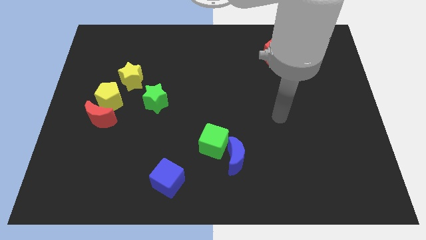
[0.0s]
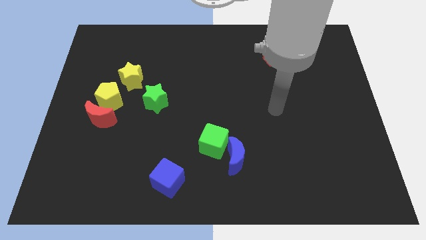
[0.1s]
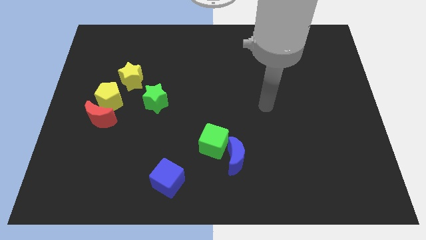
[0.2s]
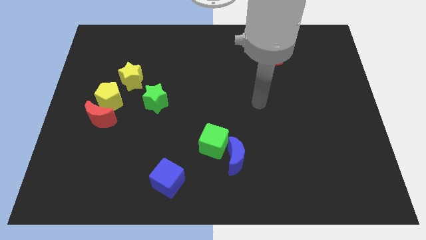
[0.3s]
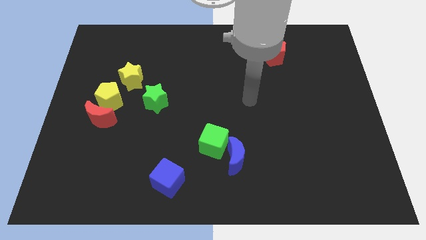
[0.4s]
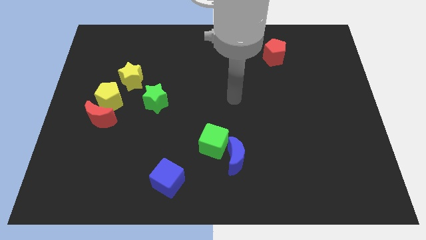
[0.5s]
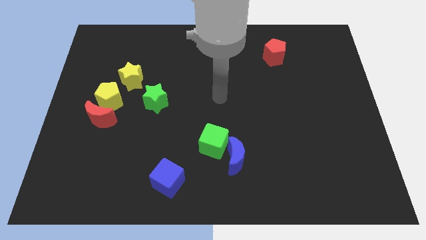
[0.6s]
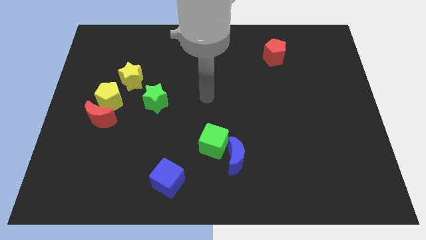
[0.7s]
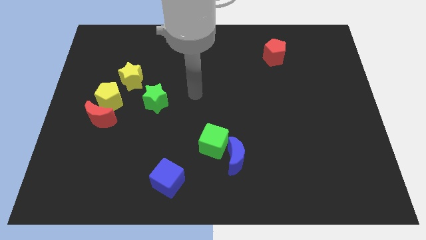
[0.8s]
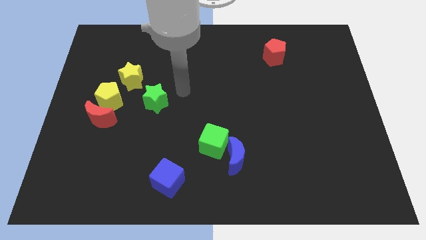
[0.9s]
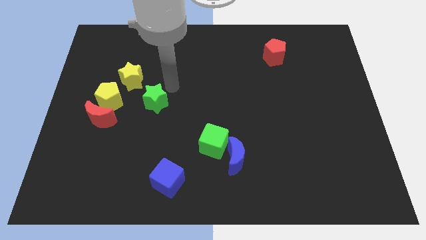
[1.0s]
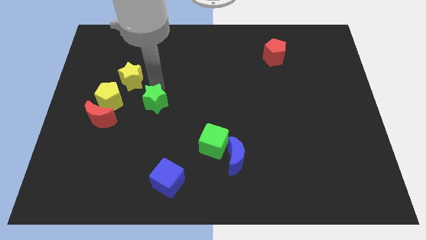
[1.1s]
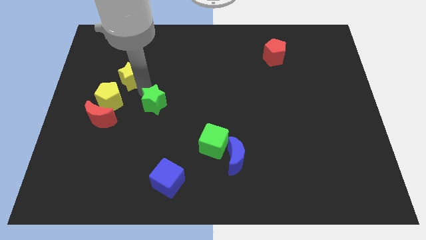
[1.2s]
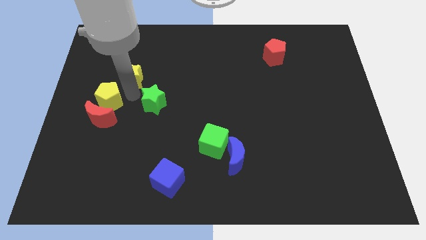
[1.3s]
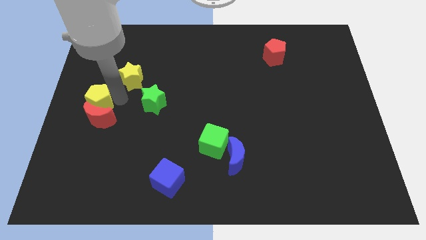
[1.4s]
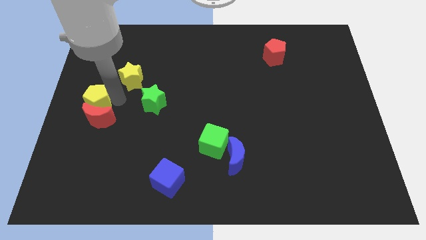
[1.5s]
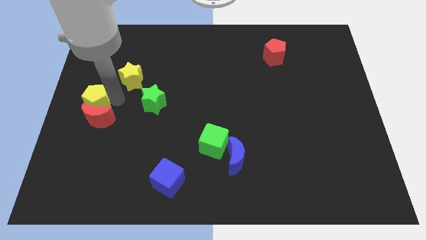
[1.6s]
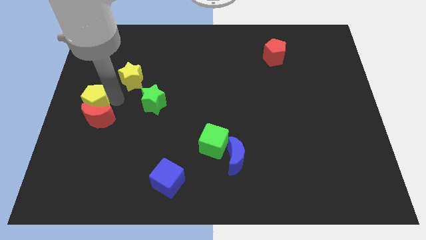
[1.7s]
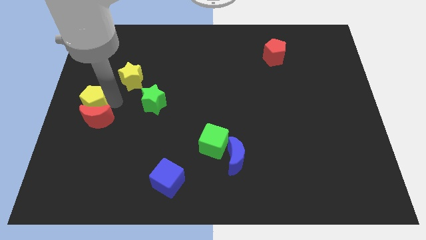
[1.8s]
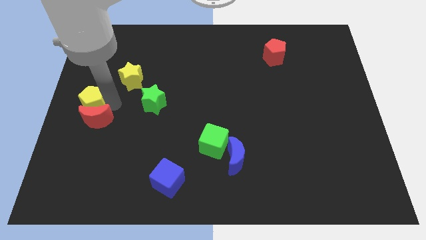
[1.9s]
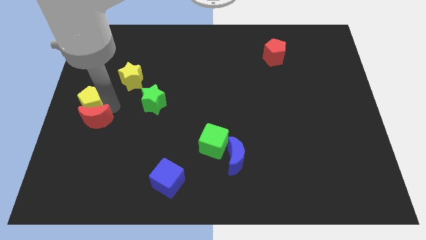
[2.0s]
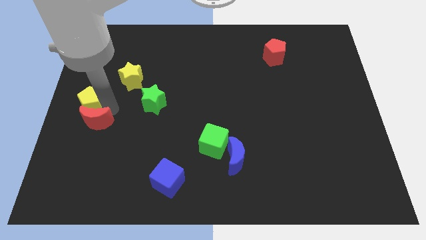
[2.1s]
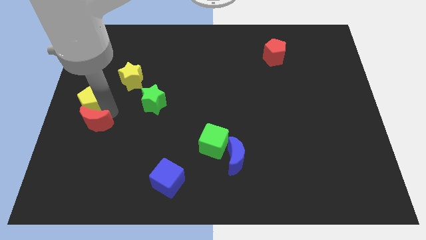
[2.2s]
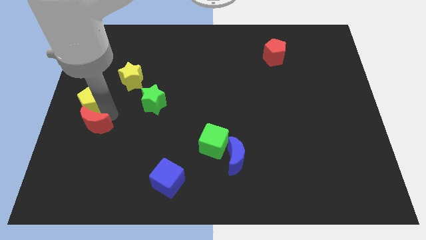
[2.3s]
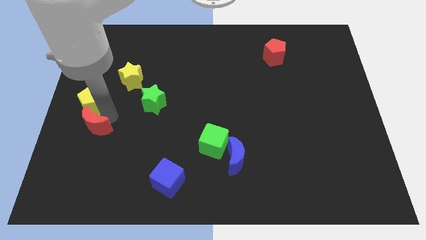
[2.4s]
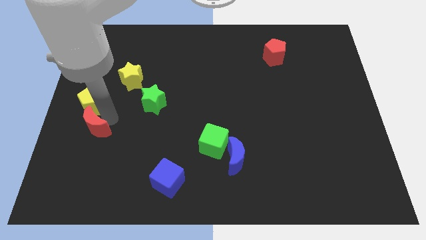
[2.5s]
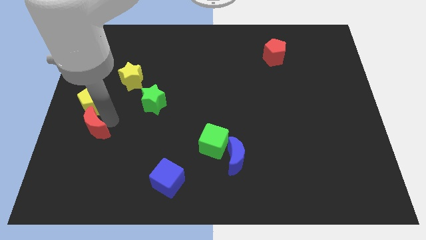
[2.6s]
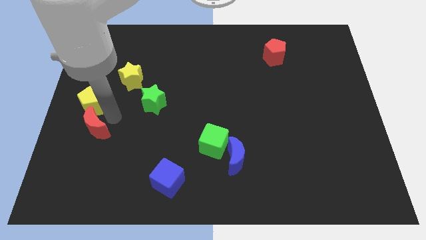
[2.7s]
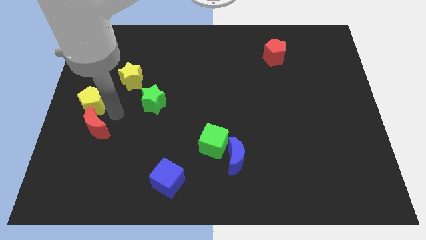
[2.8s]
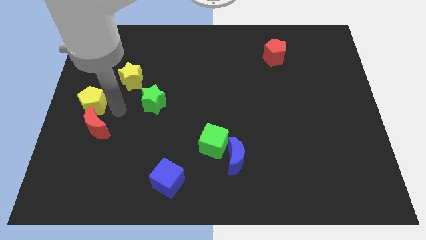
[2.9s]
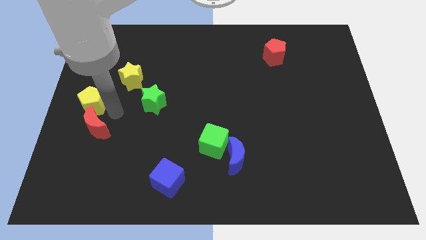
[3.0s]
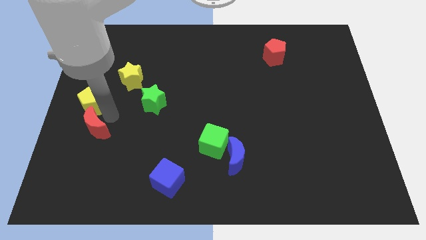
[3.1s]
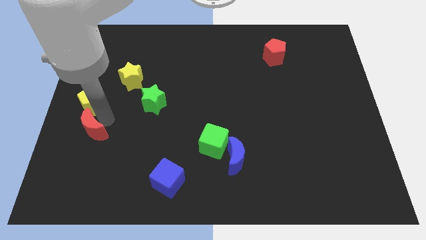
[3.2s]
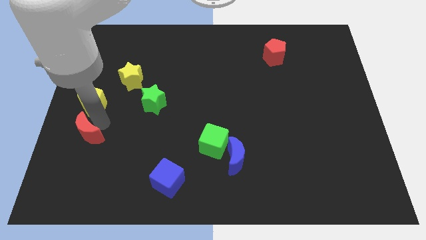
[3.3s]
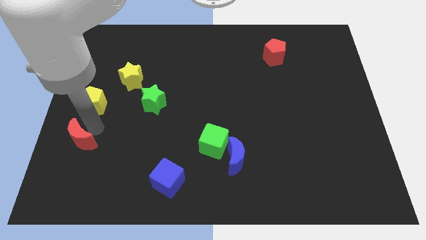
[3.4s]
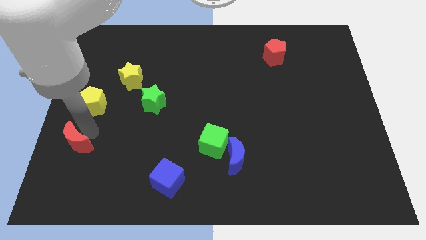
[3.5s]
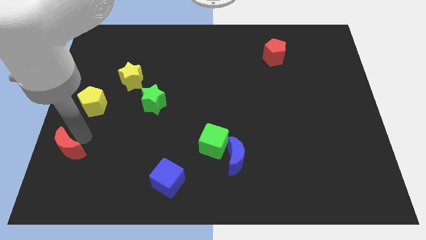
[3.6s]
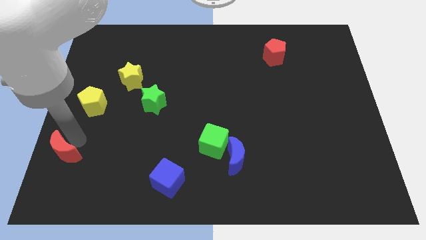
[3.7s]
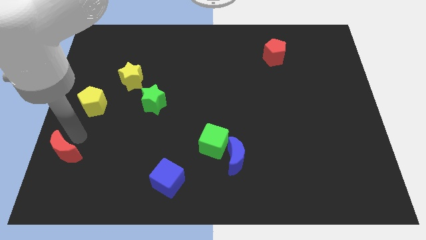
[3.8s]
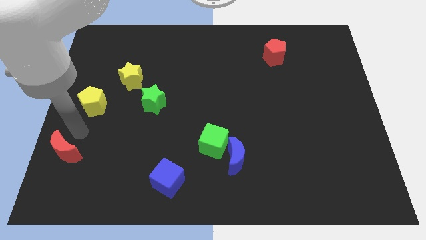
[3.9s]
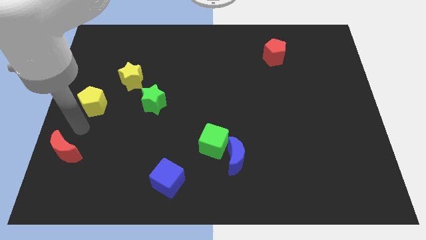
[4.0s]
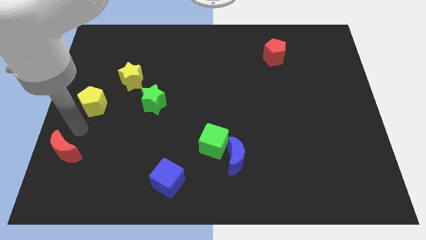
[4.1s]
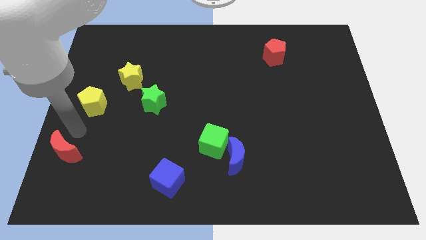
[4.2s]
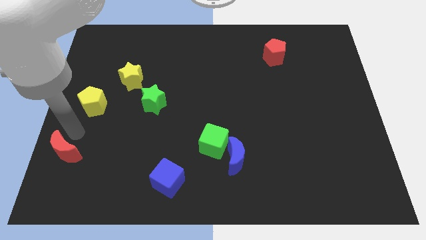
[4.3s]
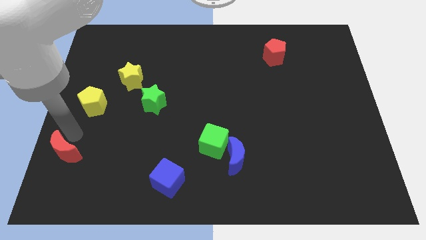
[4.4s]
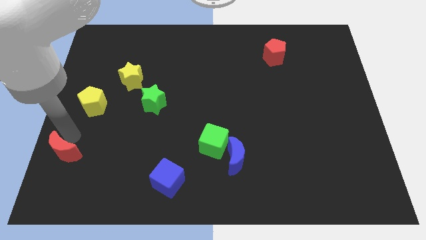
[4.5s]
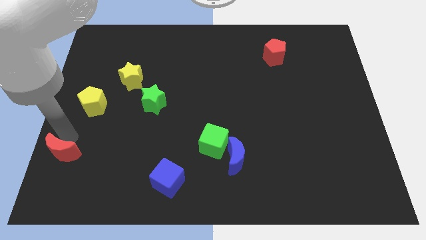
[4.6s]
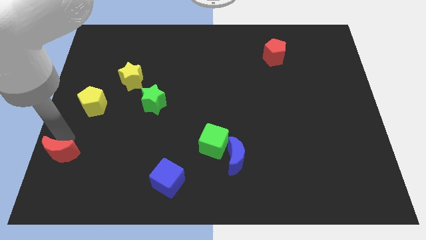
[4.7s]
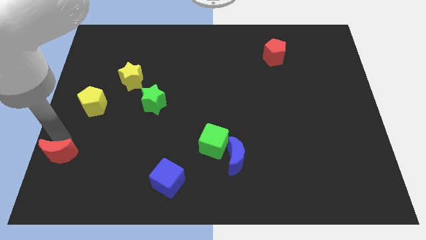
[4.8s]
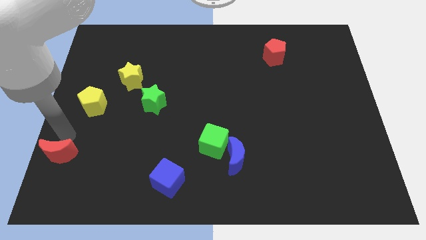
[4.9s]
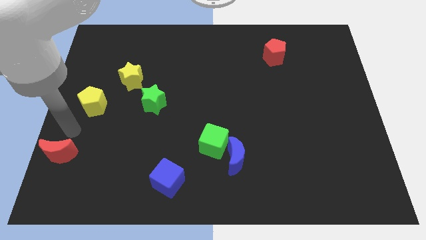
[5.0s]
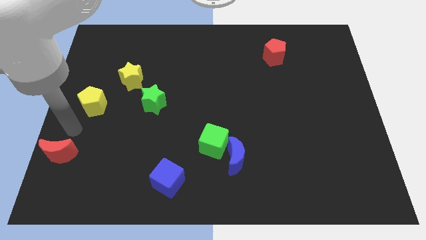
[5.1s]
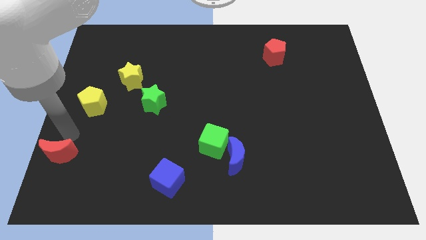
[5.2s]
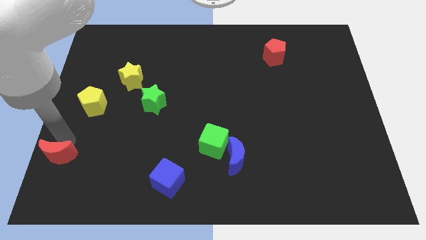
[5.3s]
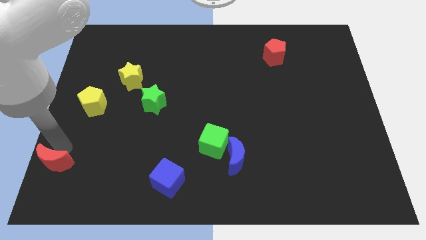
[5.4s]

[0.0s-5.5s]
push the red moon to the bottom left of the board

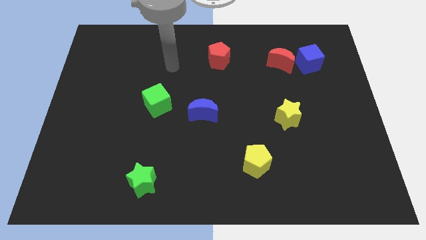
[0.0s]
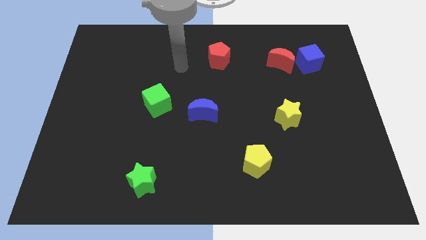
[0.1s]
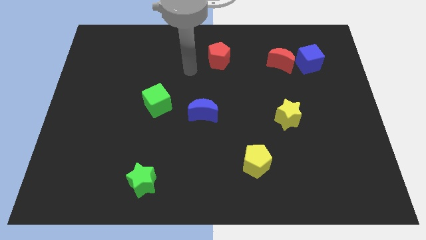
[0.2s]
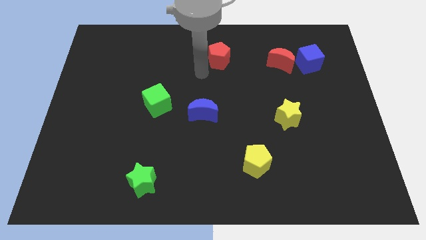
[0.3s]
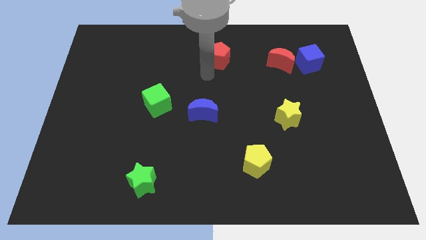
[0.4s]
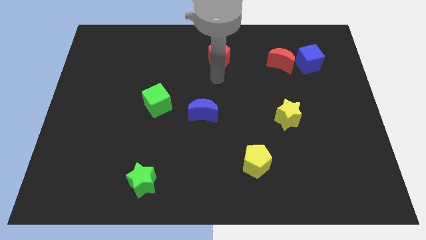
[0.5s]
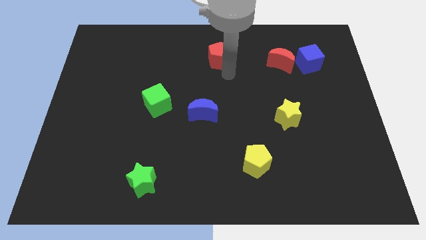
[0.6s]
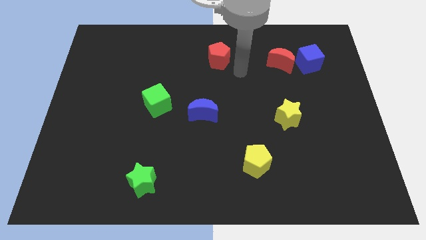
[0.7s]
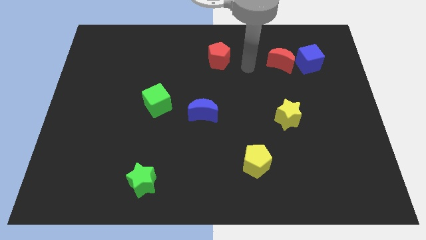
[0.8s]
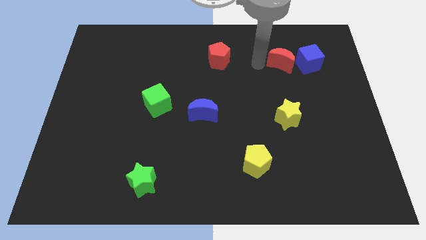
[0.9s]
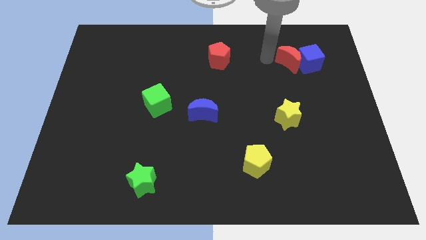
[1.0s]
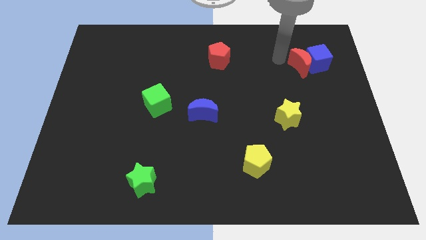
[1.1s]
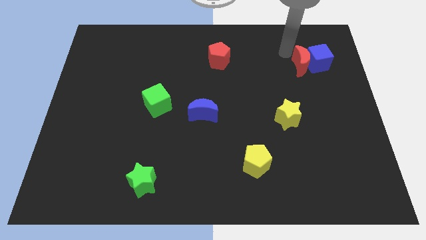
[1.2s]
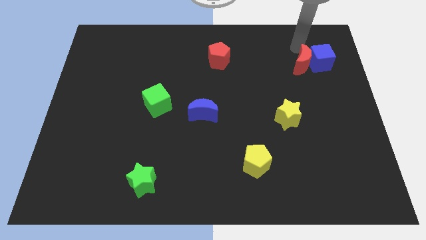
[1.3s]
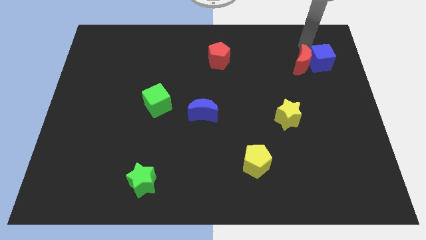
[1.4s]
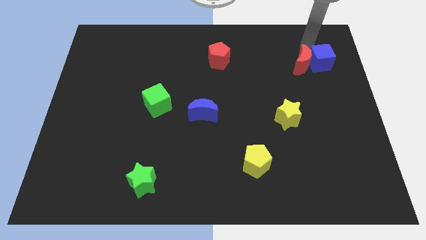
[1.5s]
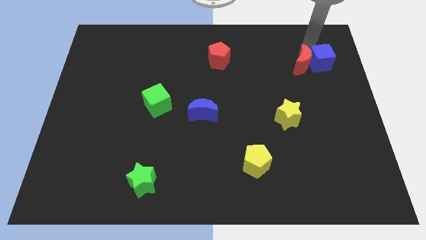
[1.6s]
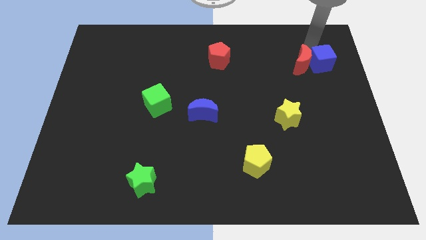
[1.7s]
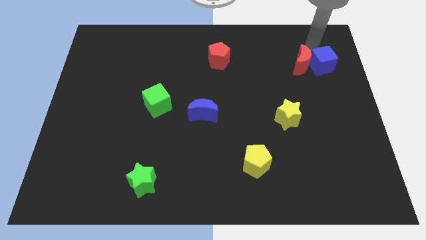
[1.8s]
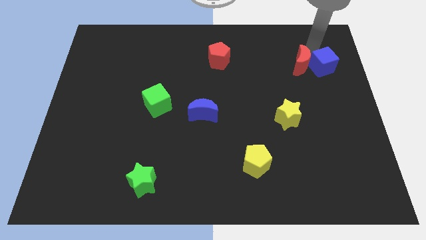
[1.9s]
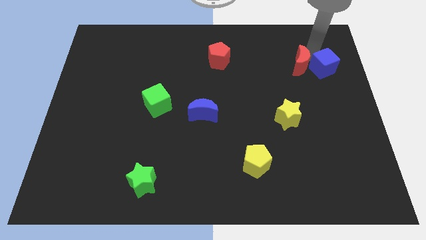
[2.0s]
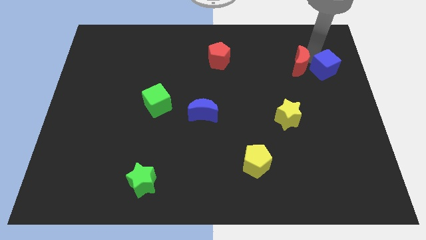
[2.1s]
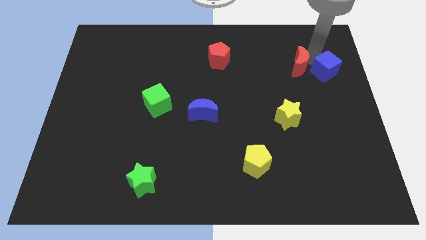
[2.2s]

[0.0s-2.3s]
slide the blue cube to the right side
